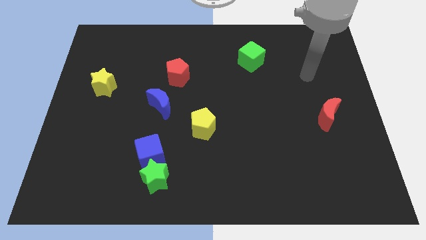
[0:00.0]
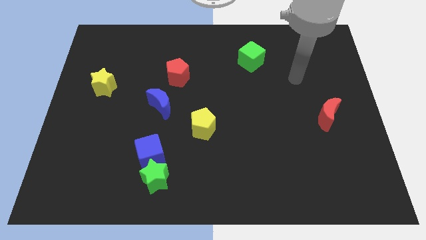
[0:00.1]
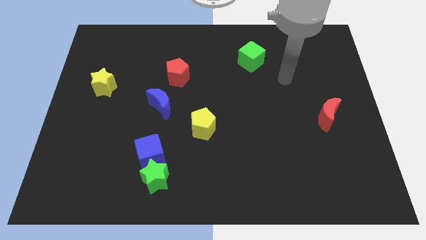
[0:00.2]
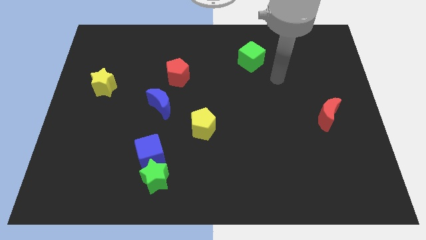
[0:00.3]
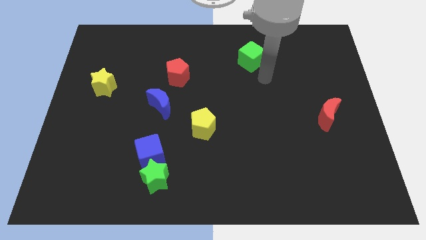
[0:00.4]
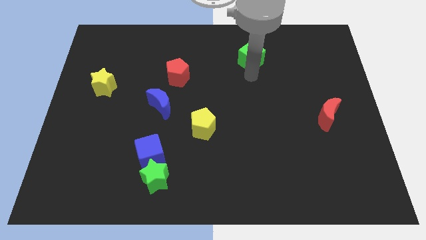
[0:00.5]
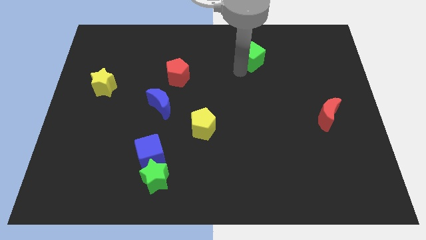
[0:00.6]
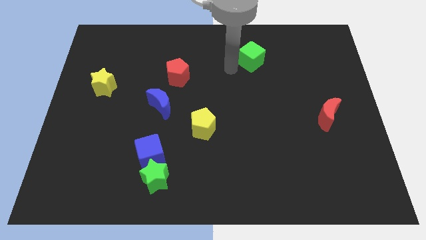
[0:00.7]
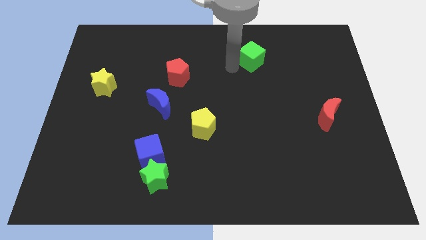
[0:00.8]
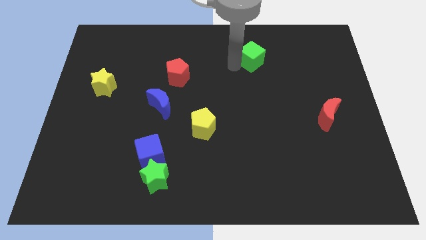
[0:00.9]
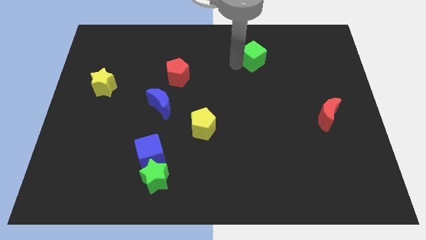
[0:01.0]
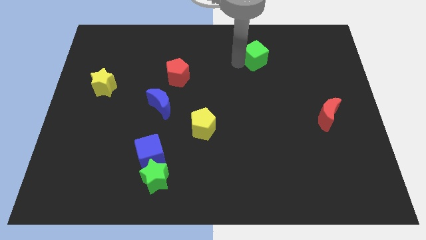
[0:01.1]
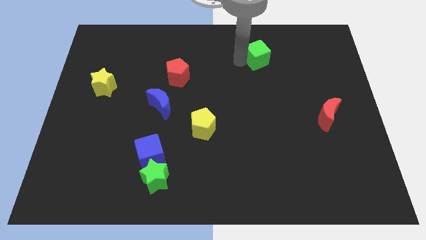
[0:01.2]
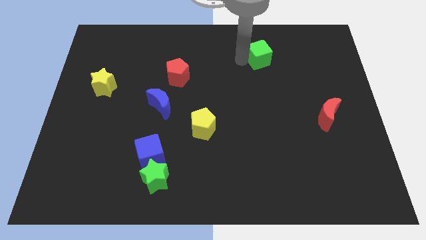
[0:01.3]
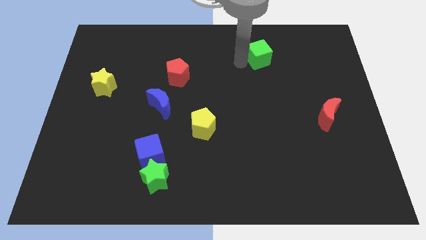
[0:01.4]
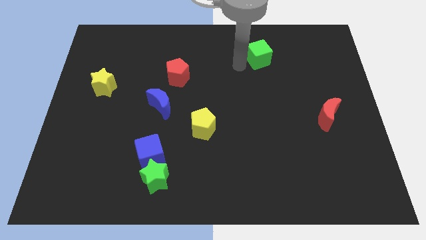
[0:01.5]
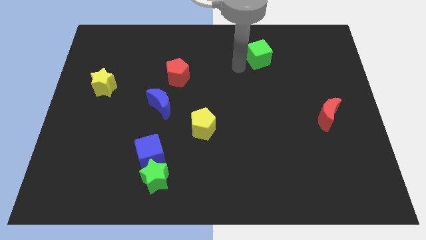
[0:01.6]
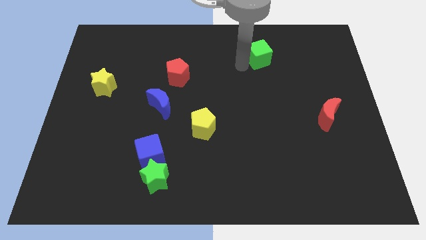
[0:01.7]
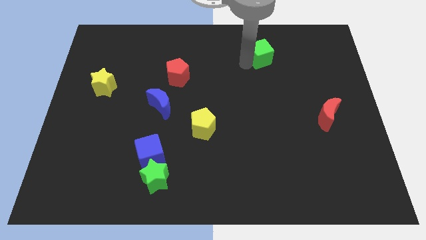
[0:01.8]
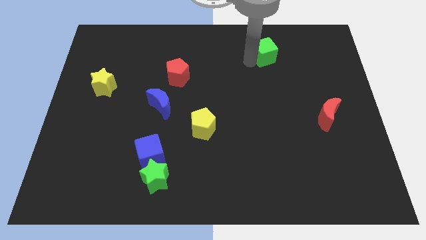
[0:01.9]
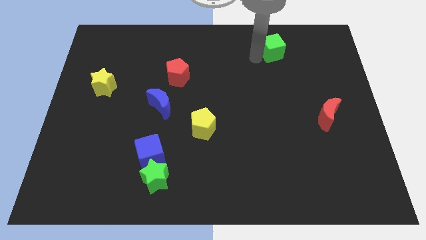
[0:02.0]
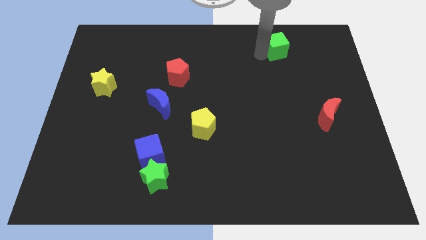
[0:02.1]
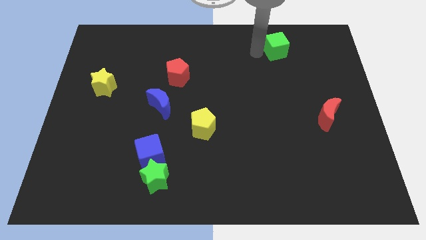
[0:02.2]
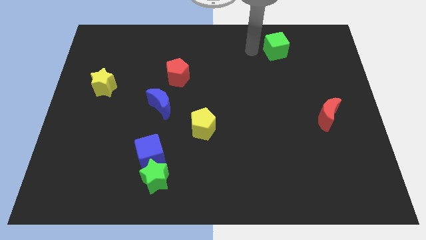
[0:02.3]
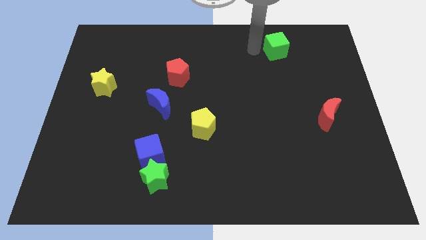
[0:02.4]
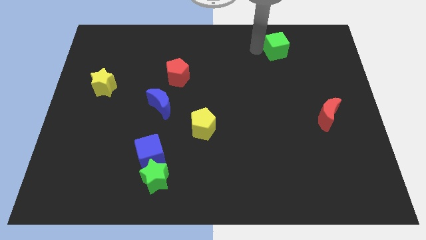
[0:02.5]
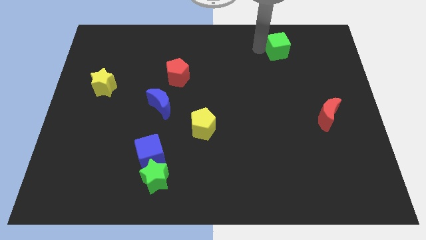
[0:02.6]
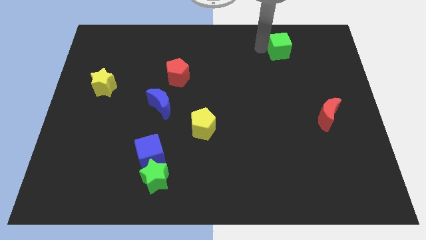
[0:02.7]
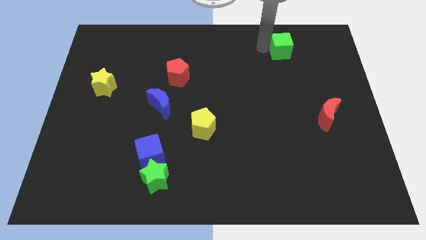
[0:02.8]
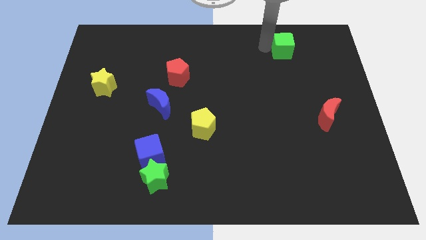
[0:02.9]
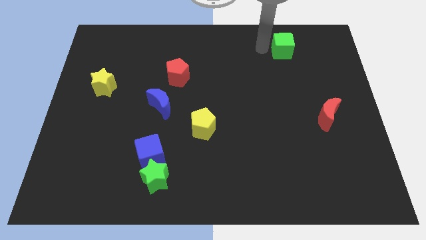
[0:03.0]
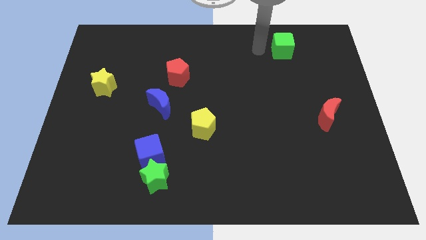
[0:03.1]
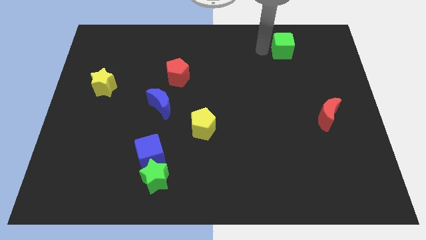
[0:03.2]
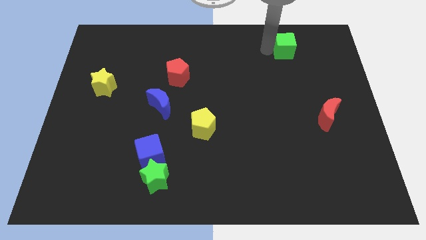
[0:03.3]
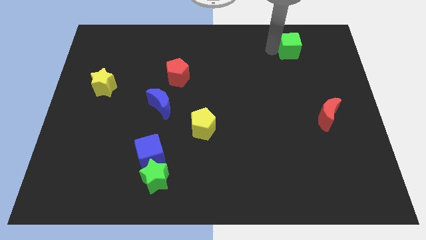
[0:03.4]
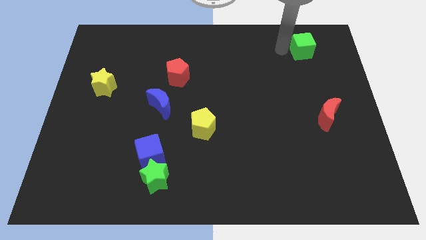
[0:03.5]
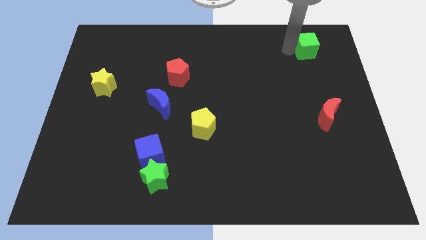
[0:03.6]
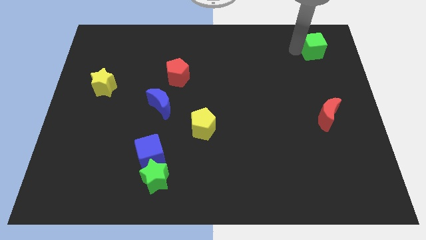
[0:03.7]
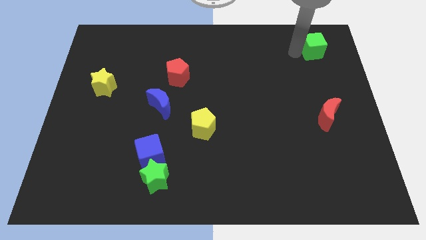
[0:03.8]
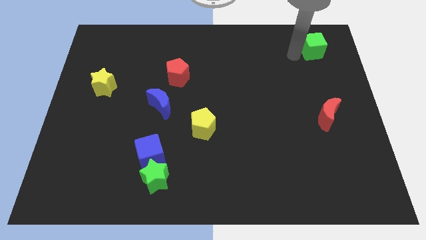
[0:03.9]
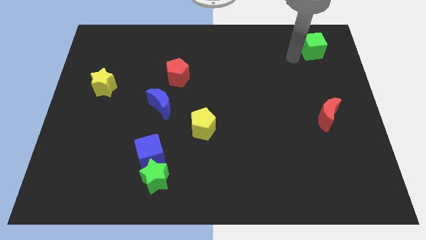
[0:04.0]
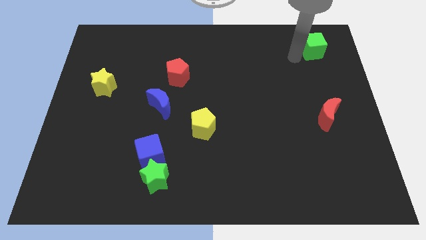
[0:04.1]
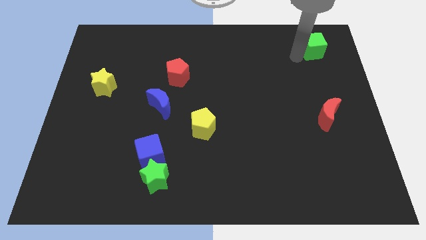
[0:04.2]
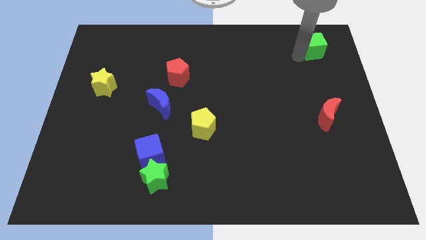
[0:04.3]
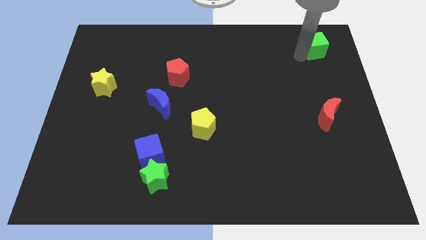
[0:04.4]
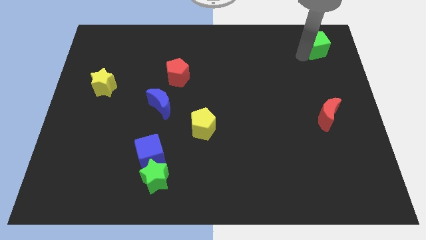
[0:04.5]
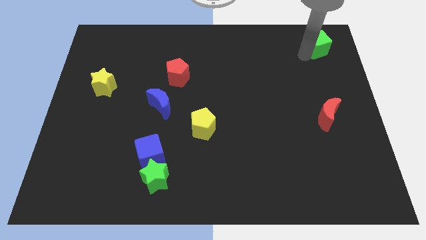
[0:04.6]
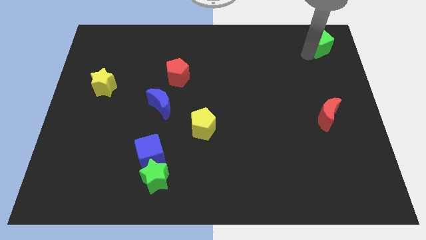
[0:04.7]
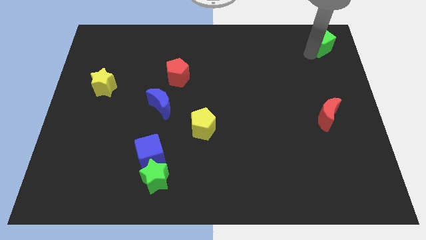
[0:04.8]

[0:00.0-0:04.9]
push the green cube to the top right

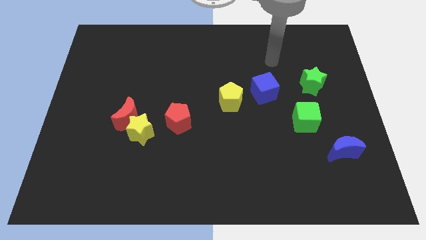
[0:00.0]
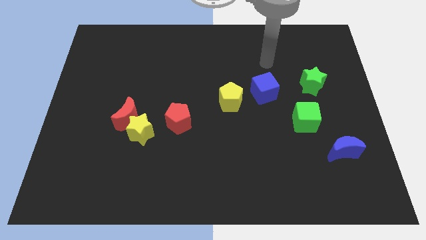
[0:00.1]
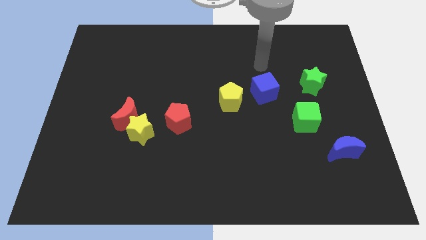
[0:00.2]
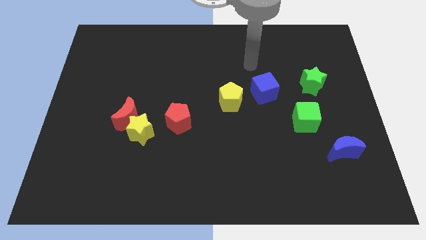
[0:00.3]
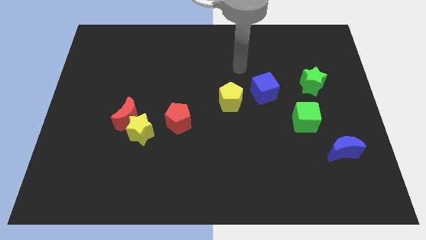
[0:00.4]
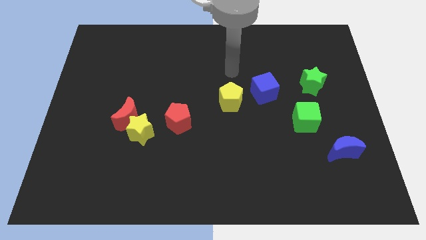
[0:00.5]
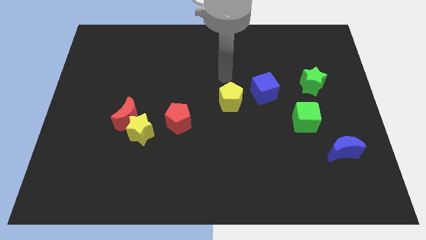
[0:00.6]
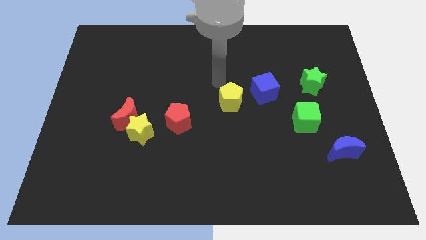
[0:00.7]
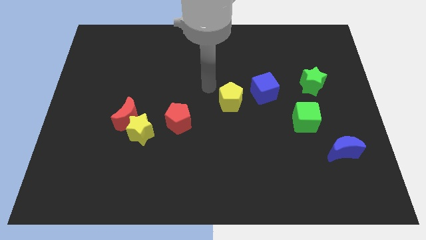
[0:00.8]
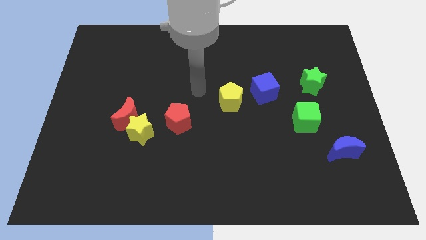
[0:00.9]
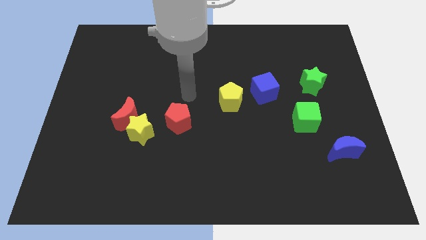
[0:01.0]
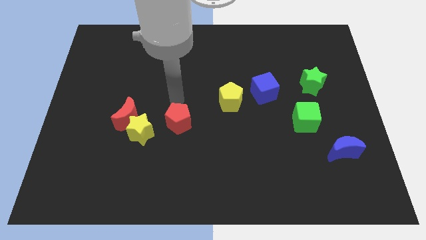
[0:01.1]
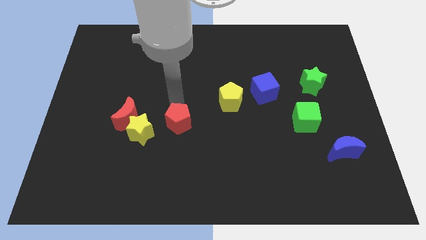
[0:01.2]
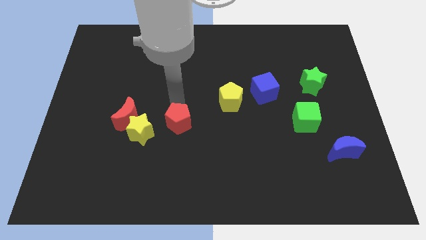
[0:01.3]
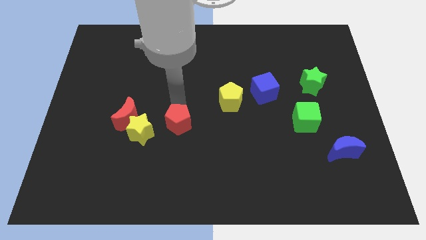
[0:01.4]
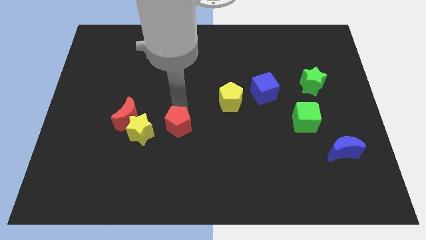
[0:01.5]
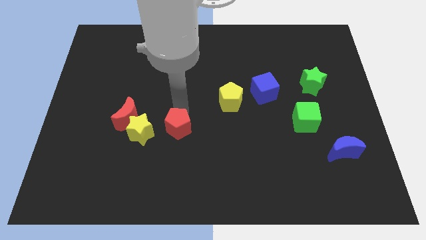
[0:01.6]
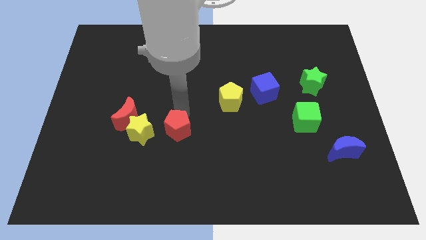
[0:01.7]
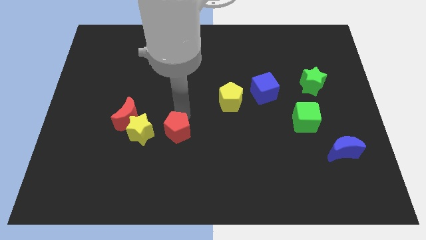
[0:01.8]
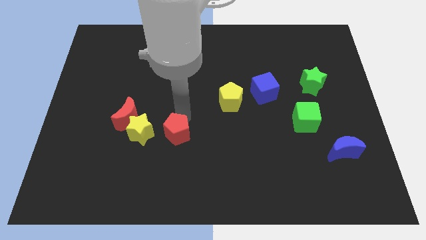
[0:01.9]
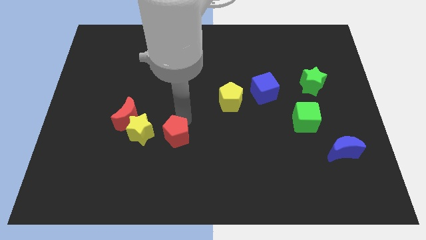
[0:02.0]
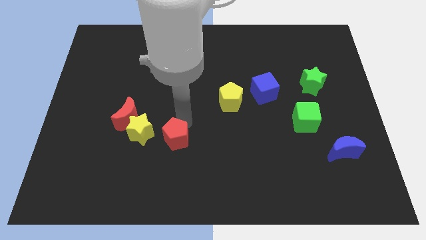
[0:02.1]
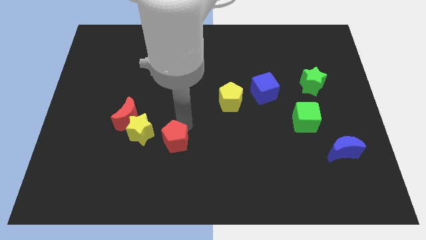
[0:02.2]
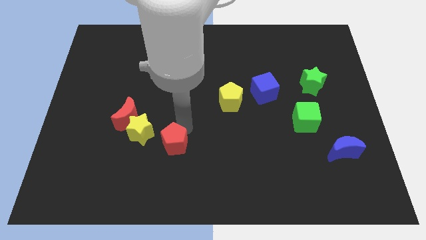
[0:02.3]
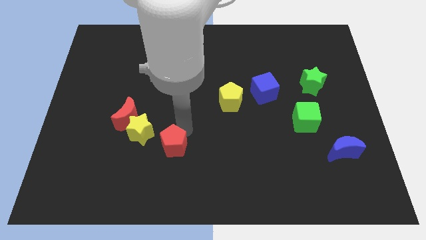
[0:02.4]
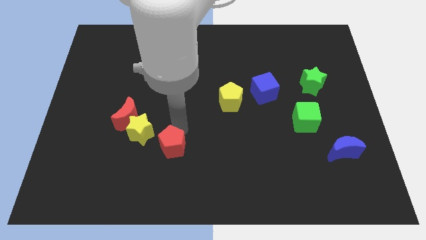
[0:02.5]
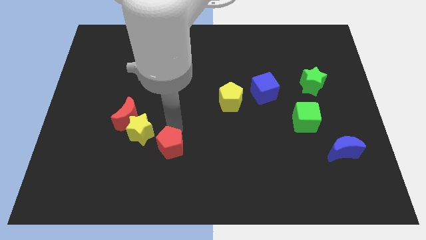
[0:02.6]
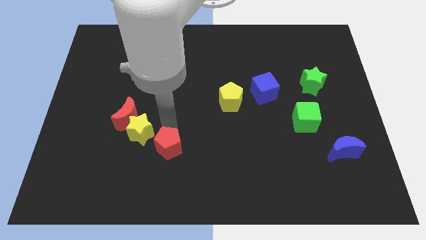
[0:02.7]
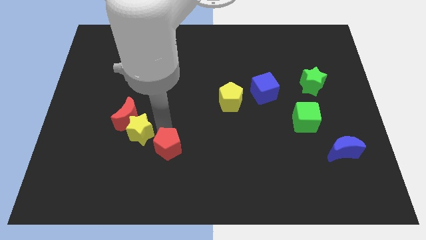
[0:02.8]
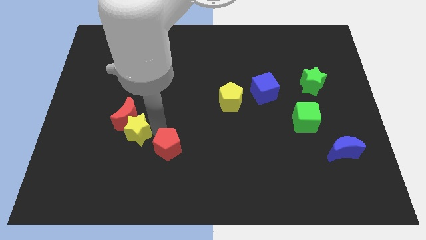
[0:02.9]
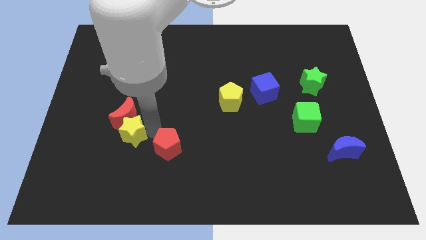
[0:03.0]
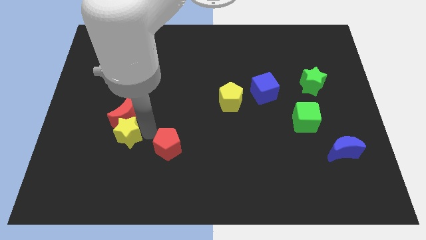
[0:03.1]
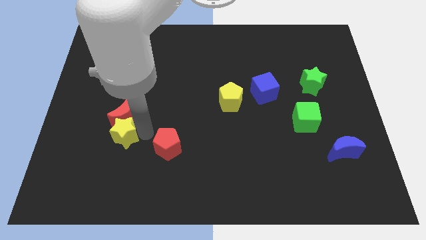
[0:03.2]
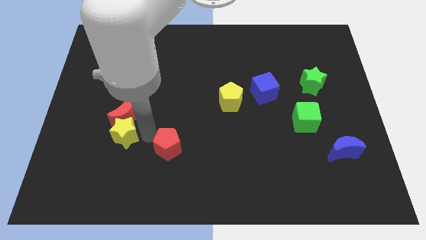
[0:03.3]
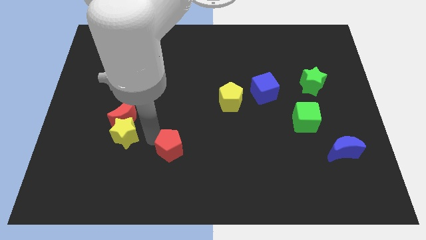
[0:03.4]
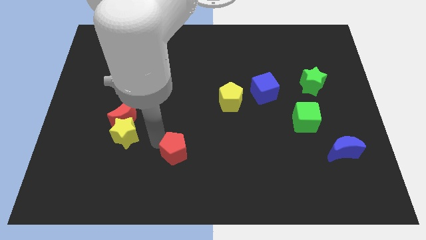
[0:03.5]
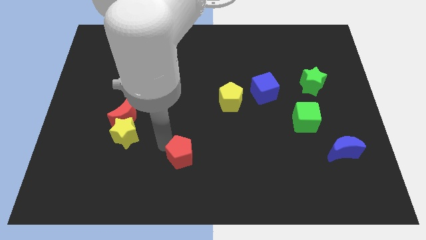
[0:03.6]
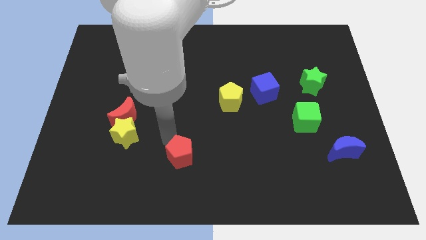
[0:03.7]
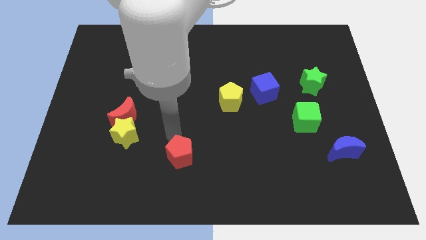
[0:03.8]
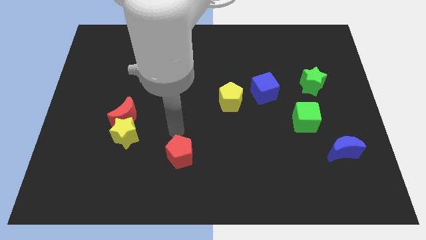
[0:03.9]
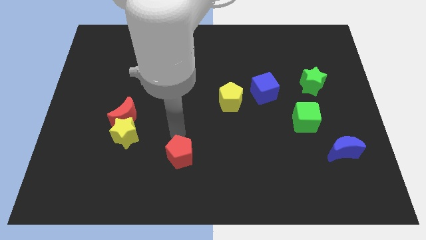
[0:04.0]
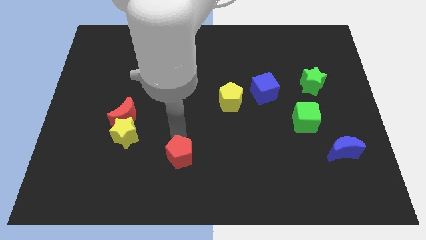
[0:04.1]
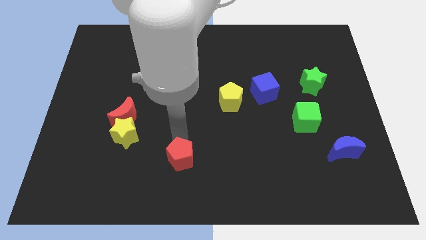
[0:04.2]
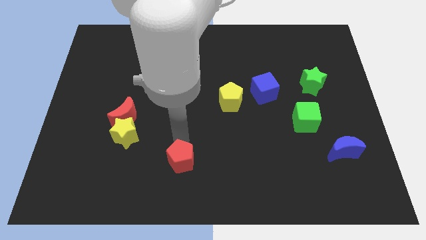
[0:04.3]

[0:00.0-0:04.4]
push the red pentagon to the bottom side
